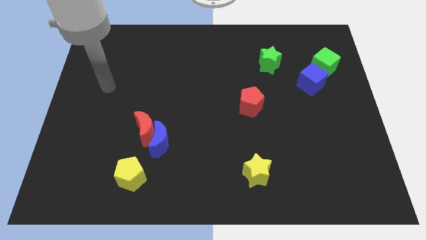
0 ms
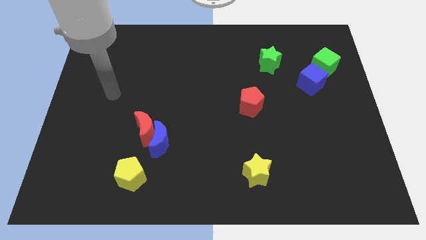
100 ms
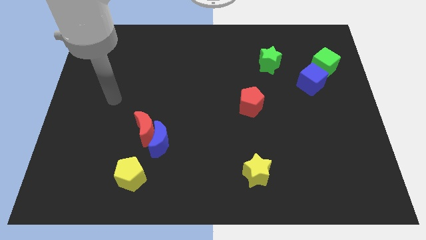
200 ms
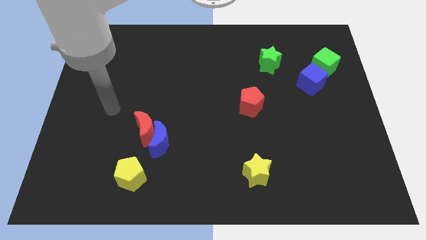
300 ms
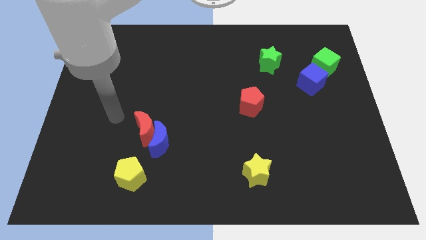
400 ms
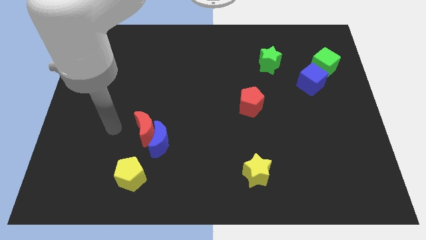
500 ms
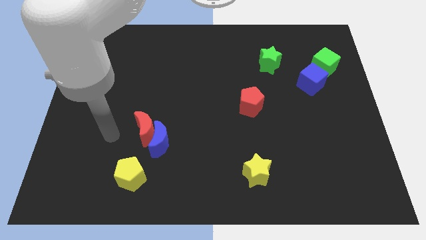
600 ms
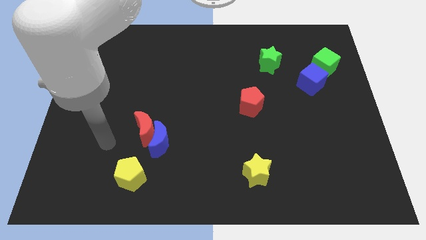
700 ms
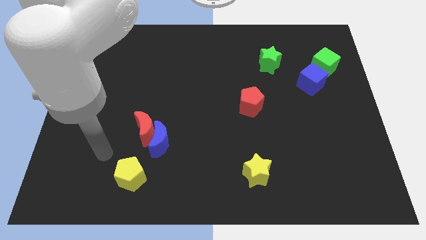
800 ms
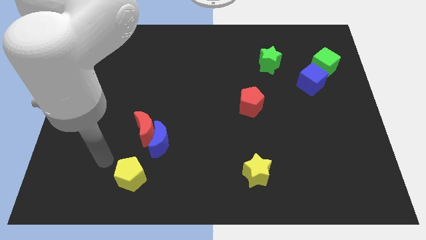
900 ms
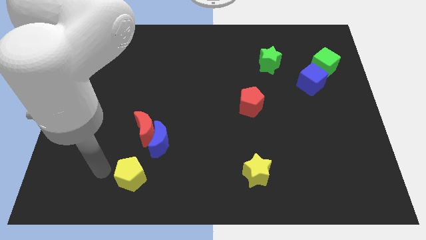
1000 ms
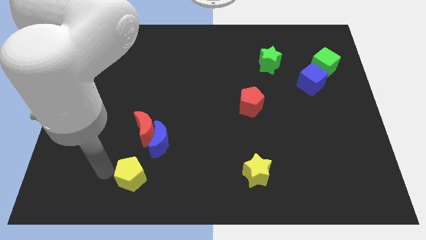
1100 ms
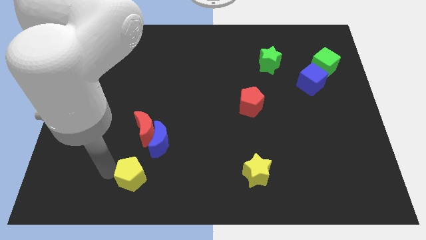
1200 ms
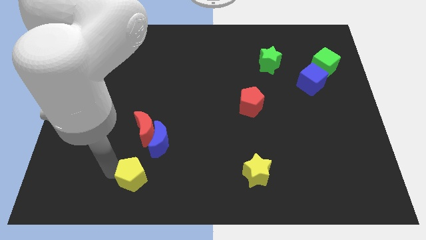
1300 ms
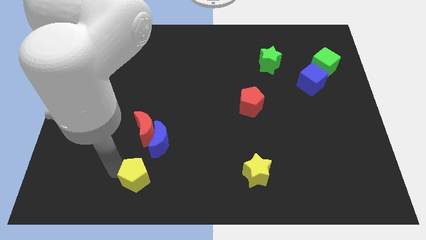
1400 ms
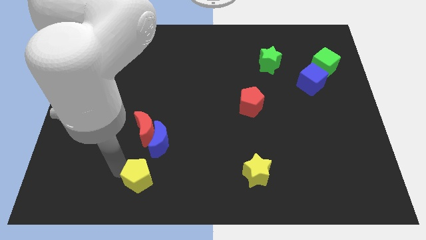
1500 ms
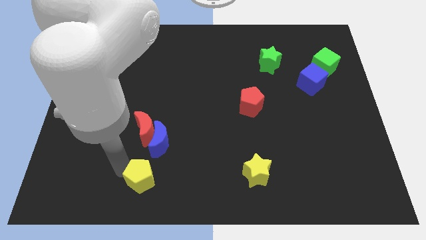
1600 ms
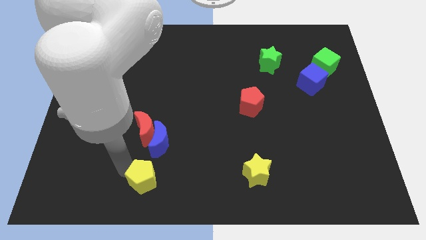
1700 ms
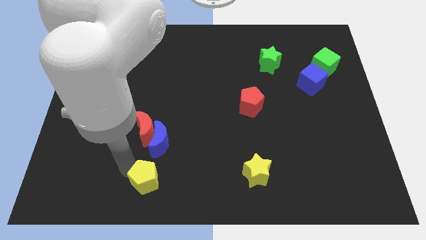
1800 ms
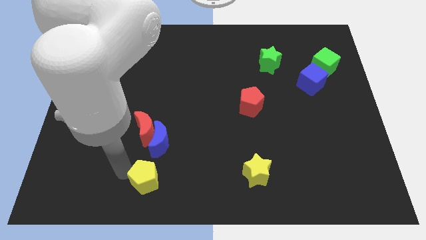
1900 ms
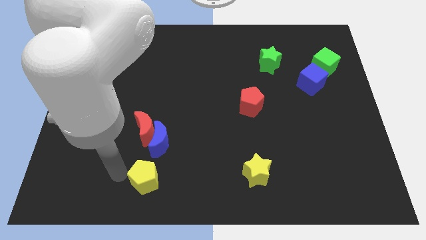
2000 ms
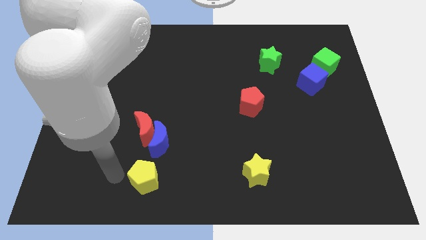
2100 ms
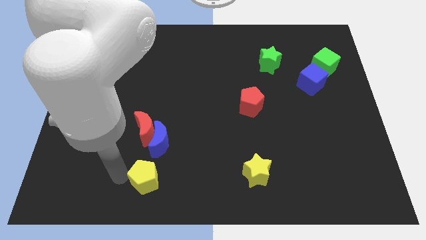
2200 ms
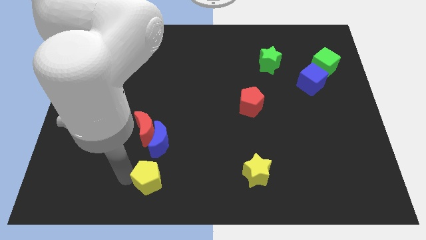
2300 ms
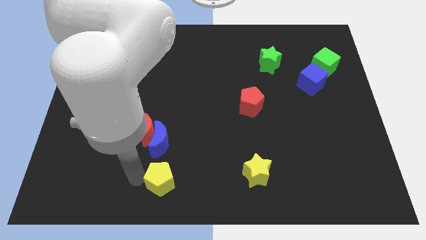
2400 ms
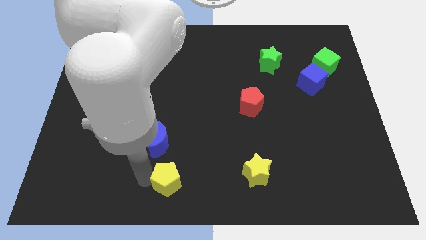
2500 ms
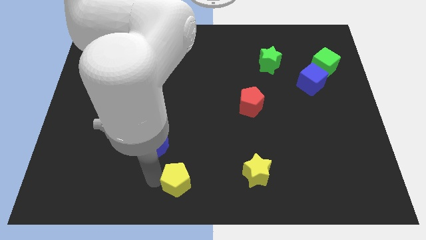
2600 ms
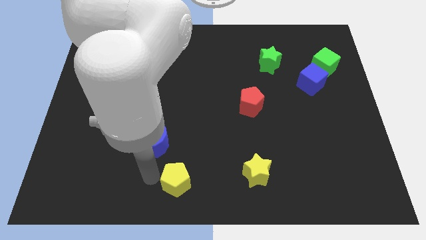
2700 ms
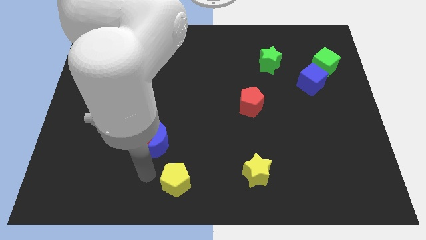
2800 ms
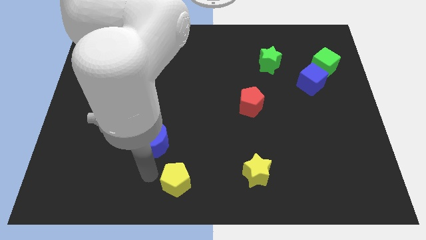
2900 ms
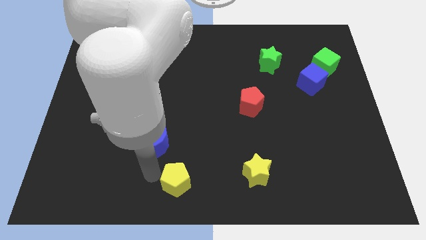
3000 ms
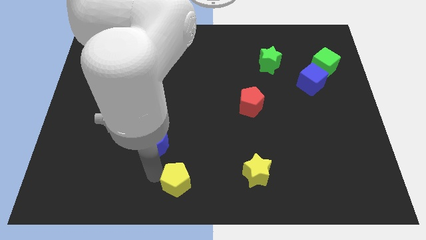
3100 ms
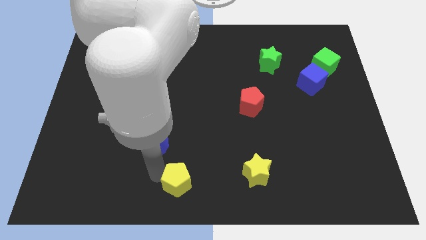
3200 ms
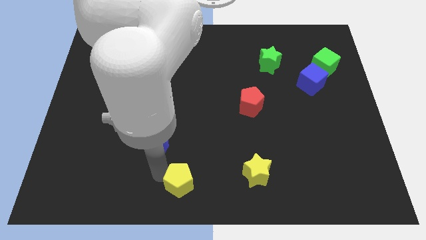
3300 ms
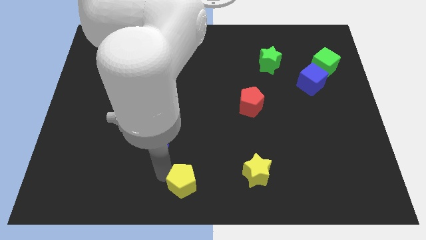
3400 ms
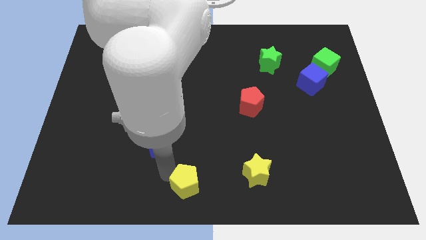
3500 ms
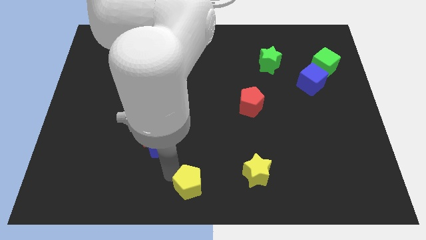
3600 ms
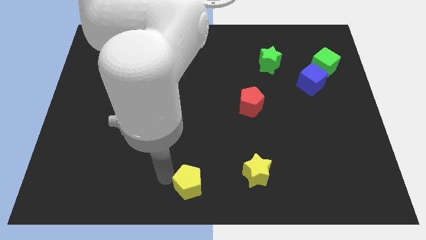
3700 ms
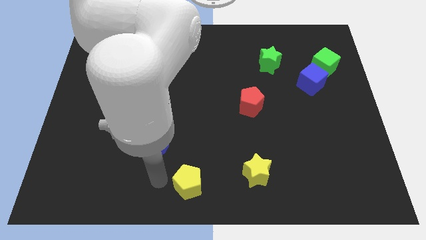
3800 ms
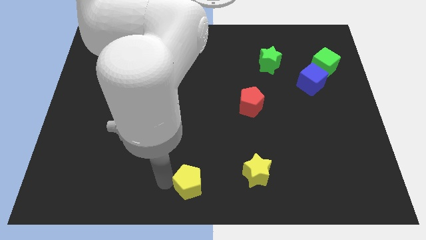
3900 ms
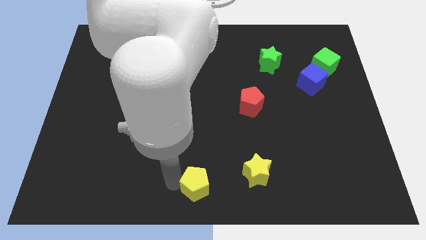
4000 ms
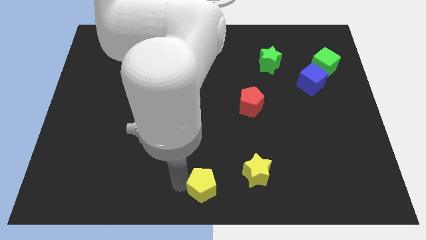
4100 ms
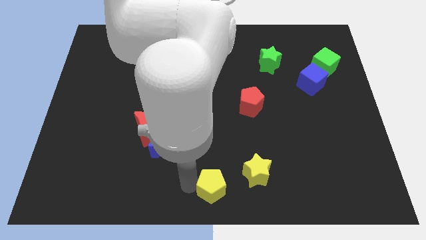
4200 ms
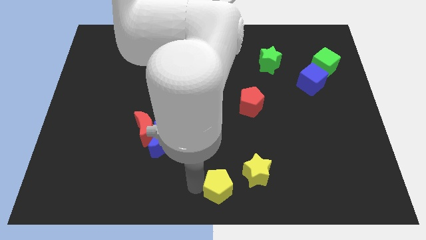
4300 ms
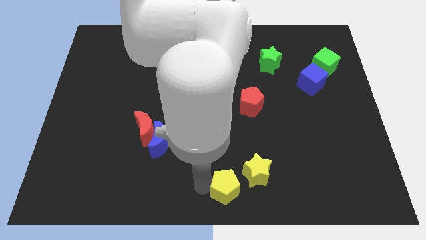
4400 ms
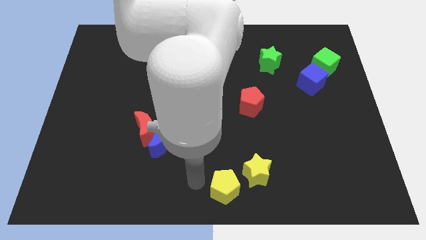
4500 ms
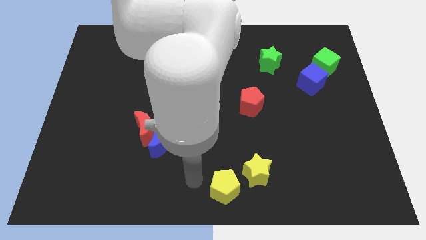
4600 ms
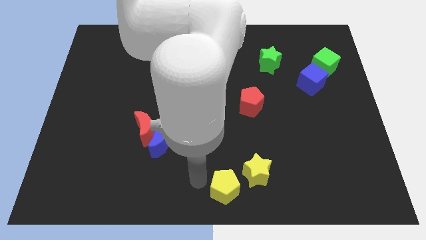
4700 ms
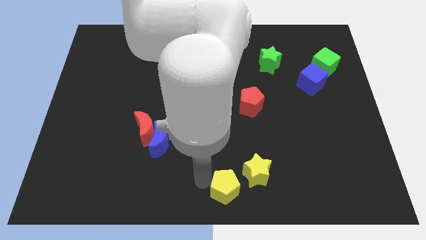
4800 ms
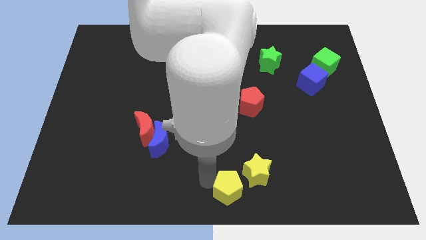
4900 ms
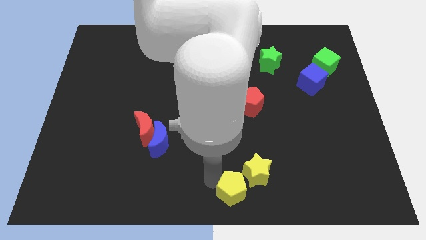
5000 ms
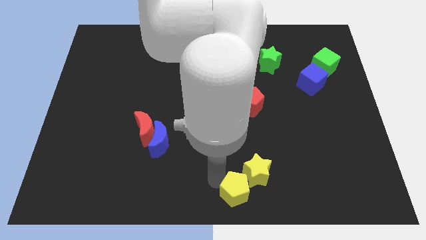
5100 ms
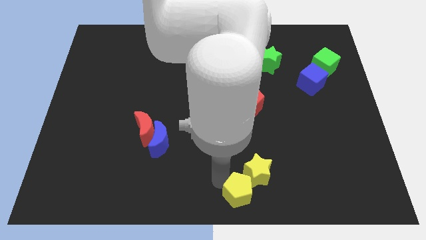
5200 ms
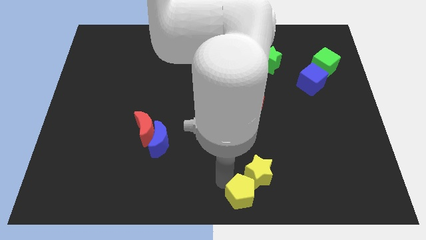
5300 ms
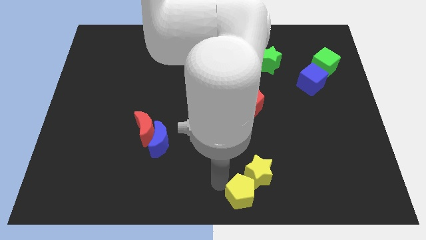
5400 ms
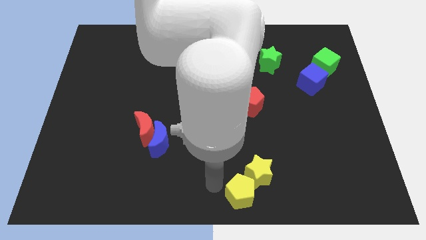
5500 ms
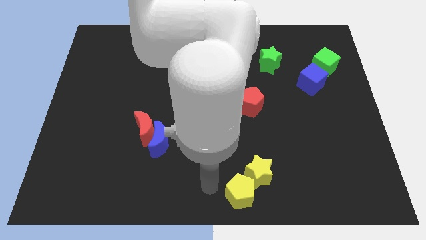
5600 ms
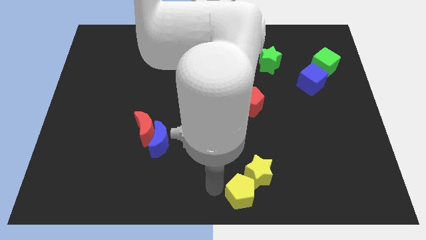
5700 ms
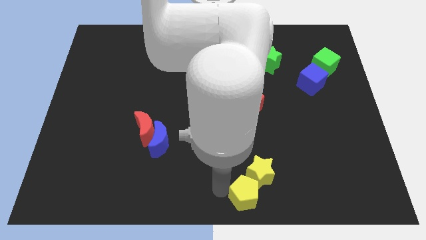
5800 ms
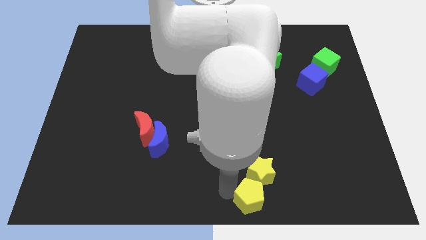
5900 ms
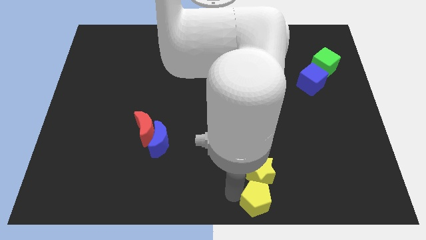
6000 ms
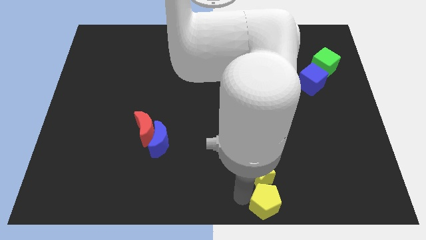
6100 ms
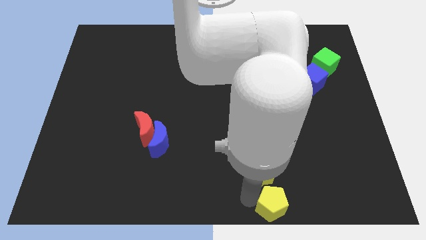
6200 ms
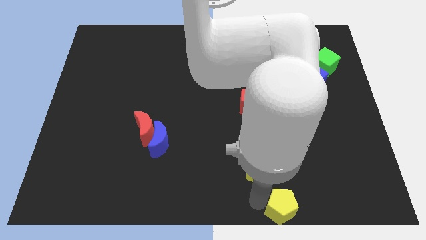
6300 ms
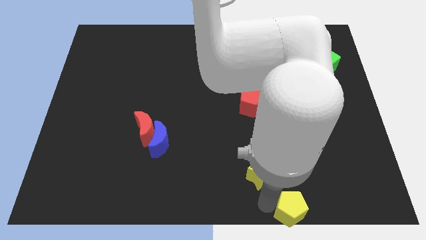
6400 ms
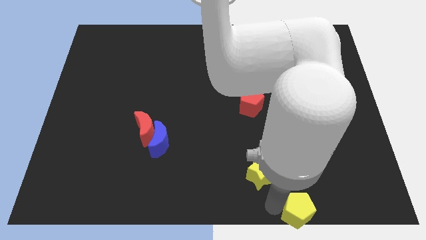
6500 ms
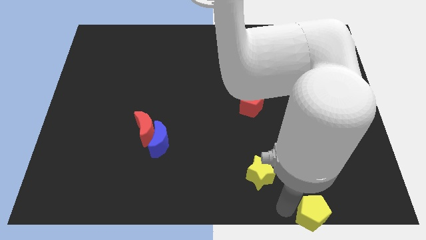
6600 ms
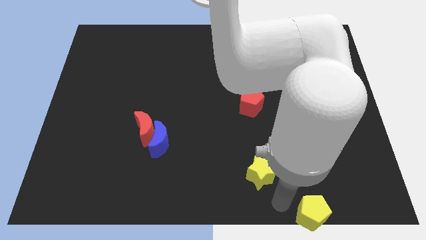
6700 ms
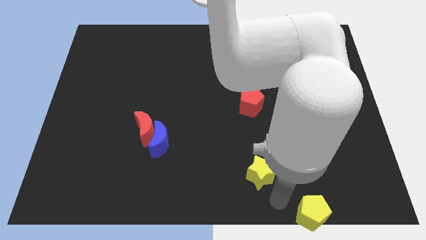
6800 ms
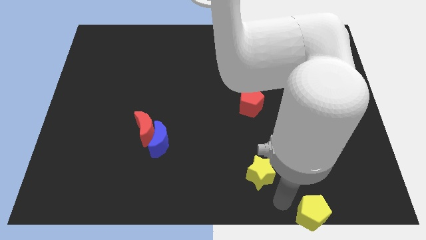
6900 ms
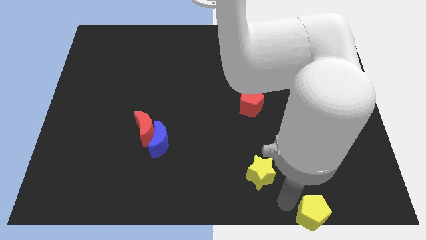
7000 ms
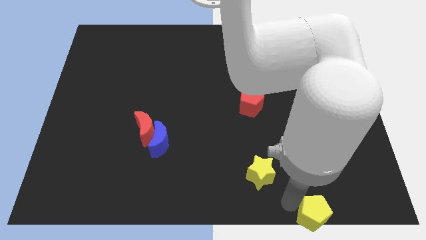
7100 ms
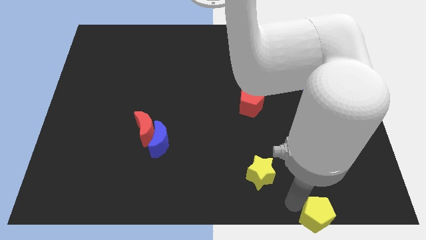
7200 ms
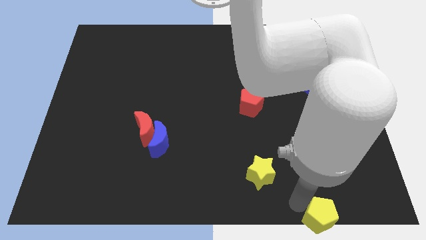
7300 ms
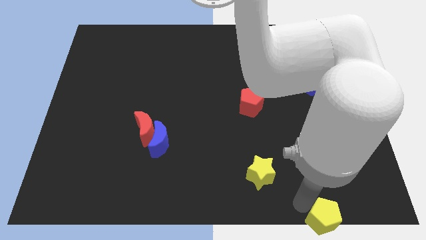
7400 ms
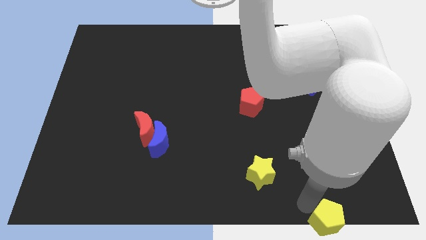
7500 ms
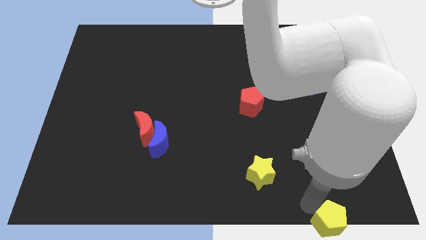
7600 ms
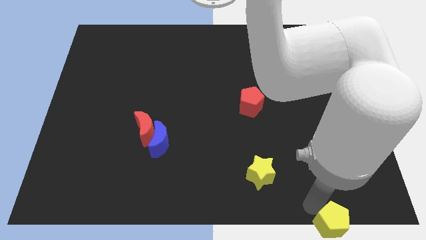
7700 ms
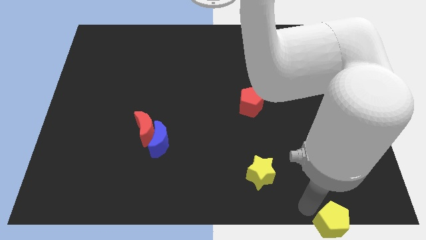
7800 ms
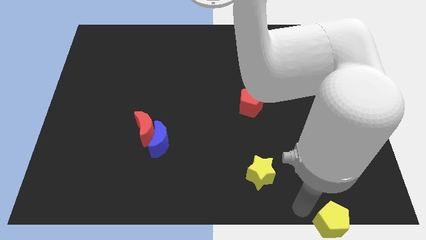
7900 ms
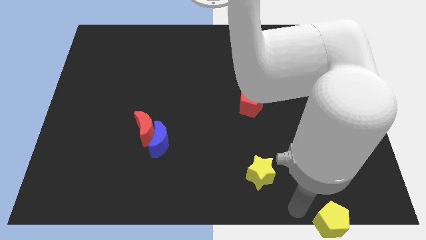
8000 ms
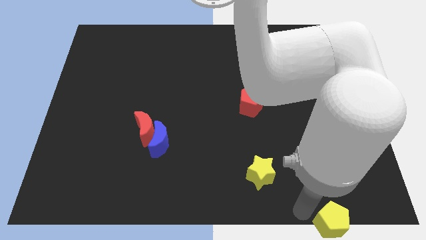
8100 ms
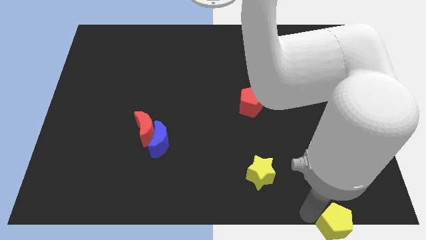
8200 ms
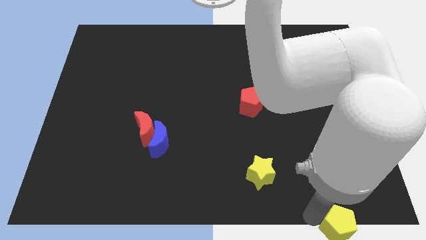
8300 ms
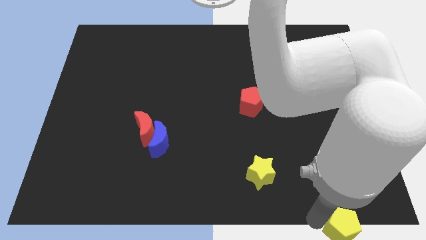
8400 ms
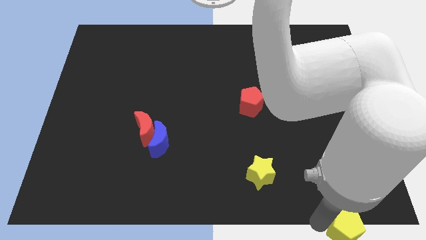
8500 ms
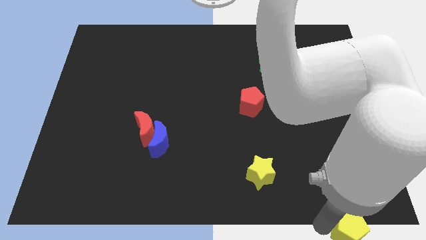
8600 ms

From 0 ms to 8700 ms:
push the yellow pentagon to the bottom right
